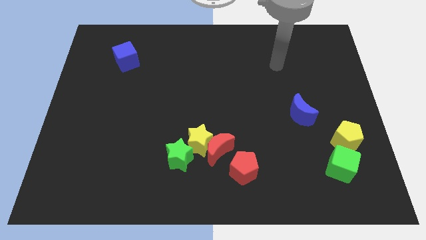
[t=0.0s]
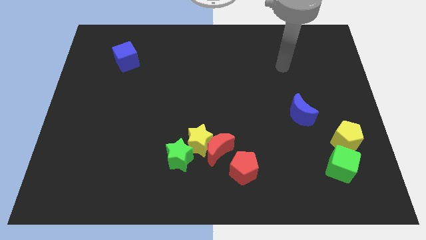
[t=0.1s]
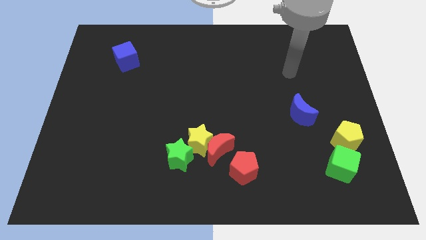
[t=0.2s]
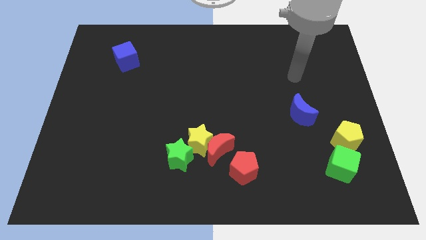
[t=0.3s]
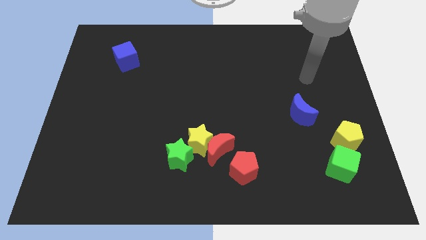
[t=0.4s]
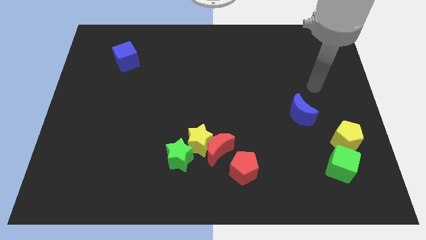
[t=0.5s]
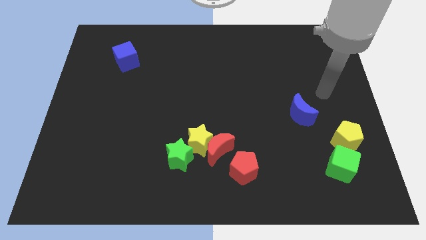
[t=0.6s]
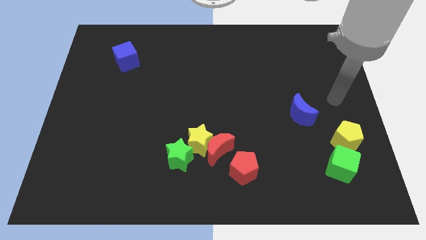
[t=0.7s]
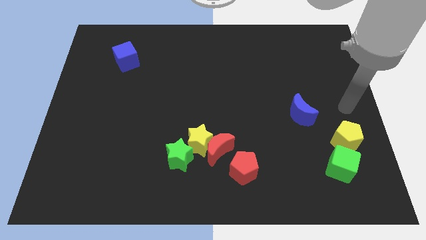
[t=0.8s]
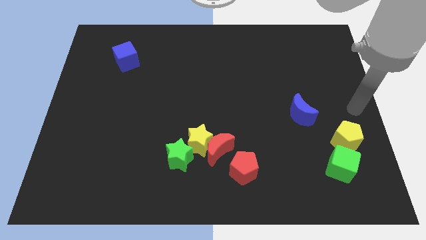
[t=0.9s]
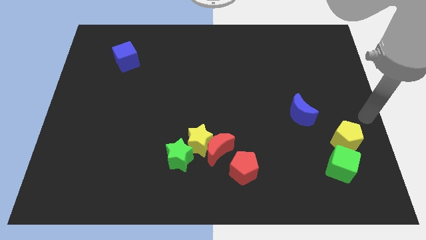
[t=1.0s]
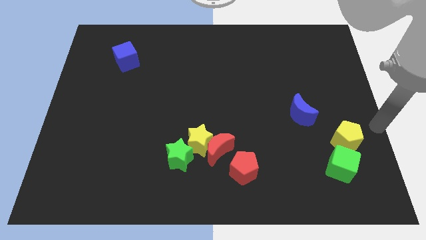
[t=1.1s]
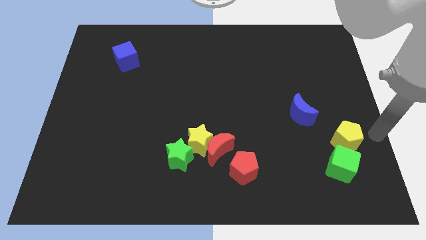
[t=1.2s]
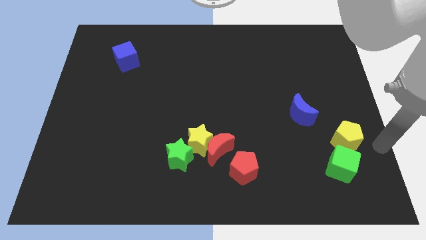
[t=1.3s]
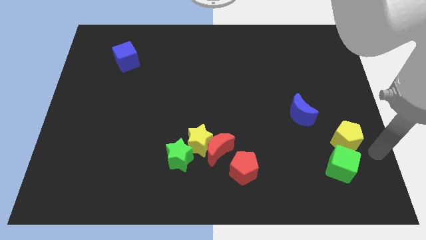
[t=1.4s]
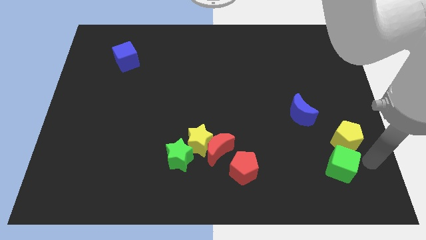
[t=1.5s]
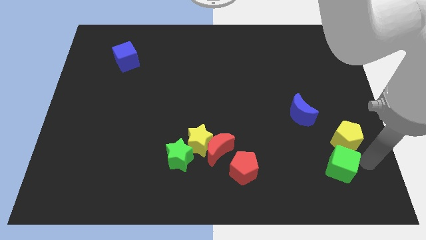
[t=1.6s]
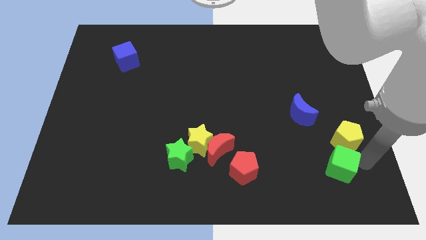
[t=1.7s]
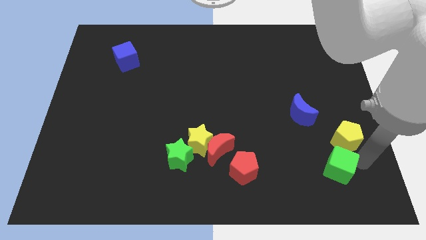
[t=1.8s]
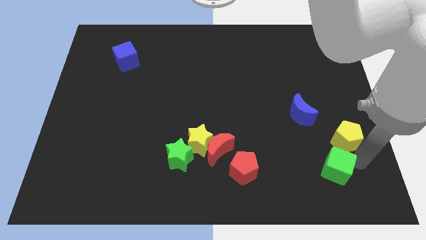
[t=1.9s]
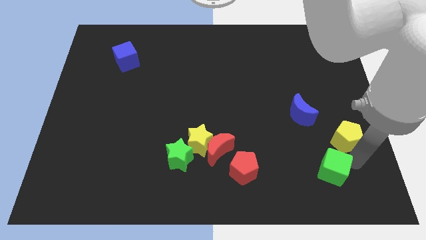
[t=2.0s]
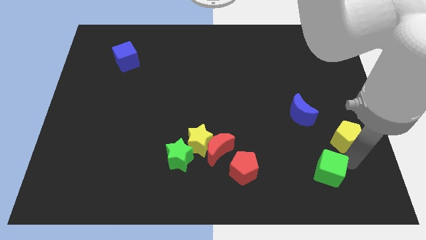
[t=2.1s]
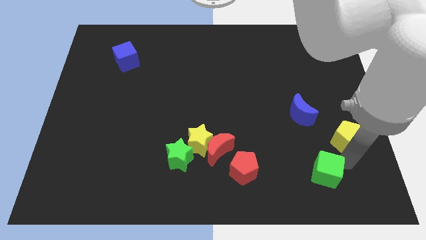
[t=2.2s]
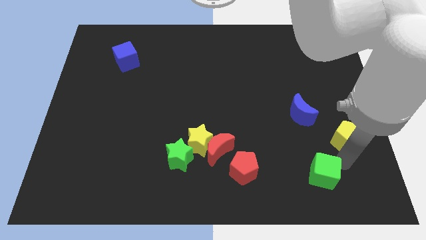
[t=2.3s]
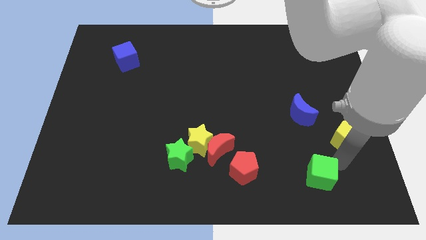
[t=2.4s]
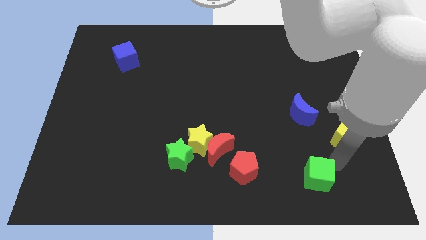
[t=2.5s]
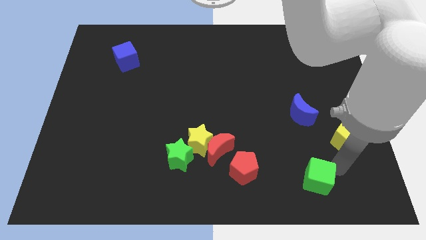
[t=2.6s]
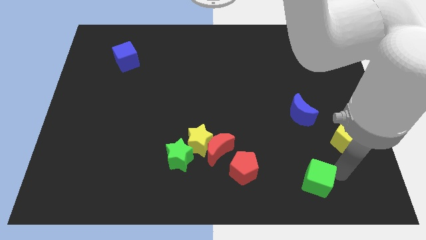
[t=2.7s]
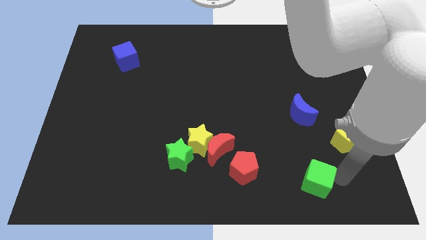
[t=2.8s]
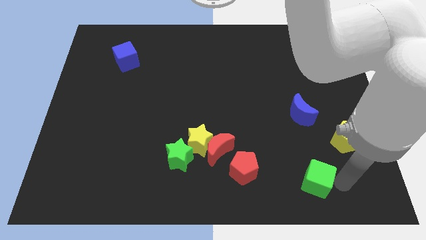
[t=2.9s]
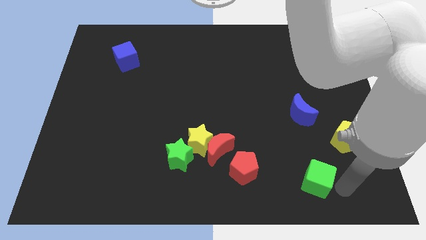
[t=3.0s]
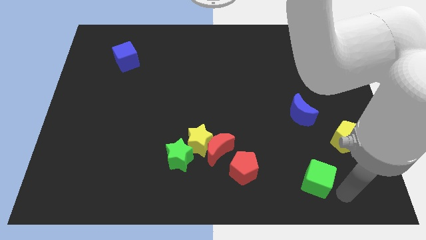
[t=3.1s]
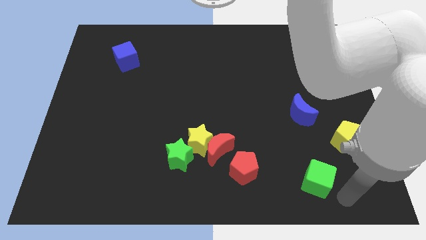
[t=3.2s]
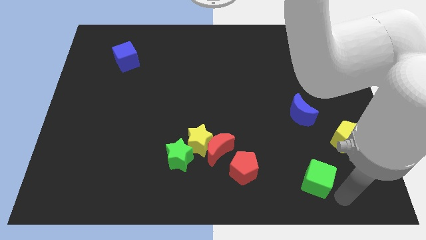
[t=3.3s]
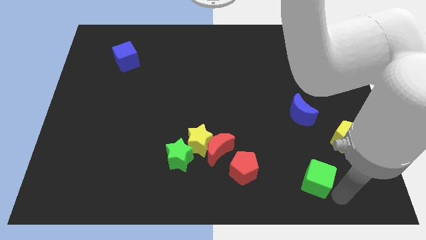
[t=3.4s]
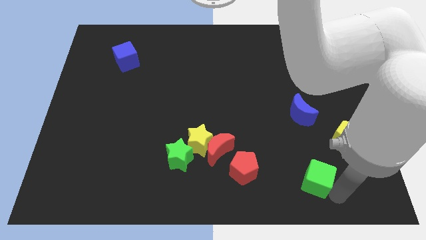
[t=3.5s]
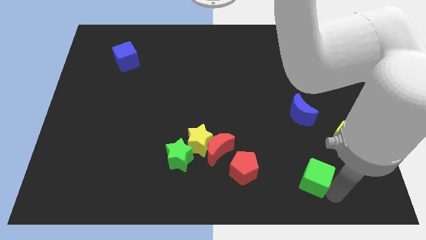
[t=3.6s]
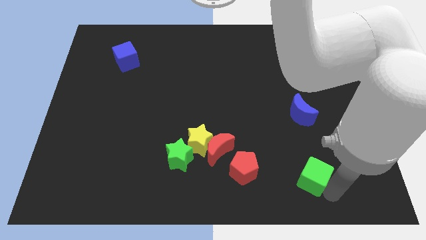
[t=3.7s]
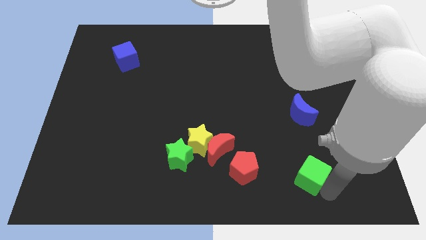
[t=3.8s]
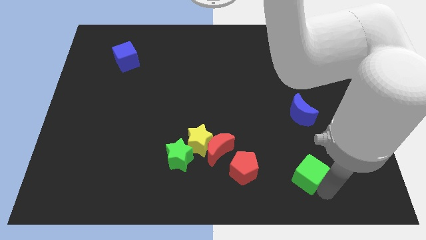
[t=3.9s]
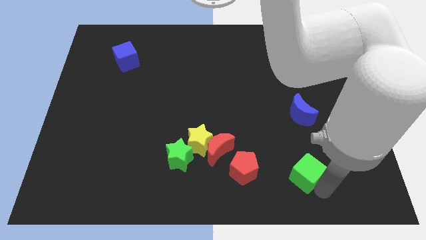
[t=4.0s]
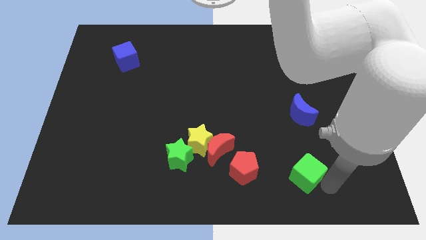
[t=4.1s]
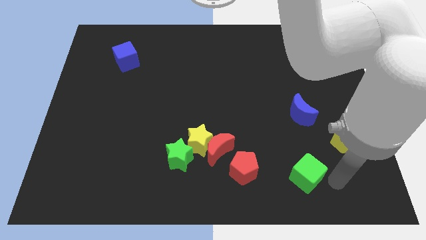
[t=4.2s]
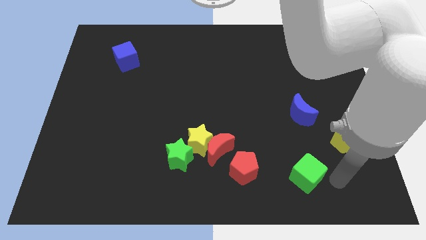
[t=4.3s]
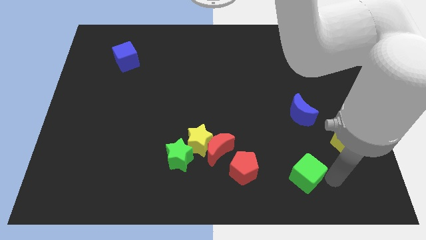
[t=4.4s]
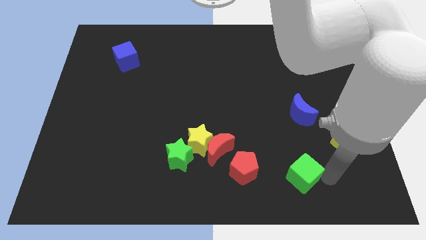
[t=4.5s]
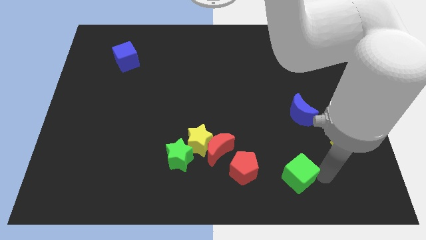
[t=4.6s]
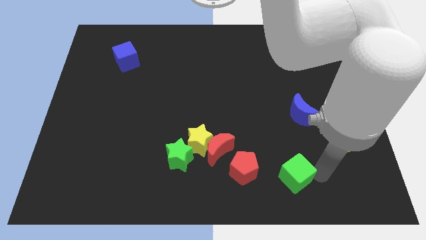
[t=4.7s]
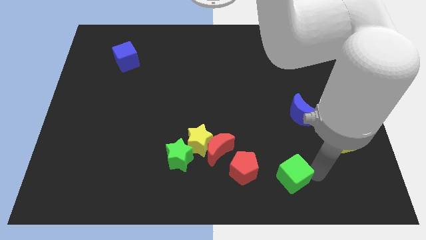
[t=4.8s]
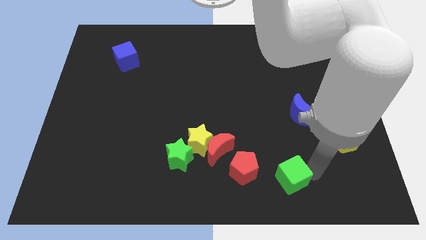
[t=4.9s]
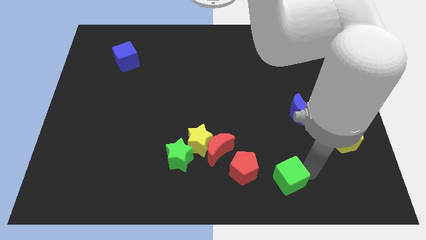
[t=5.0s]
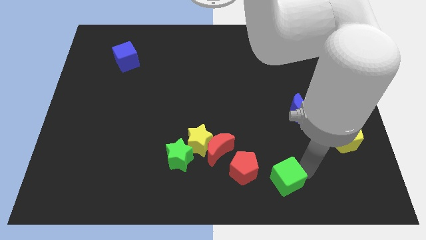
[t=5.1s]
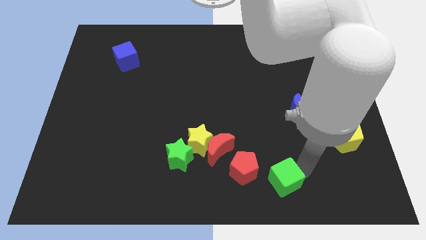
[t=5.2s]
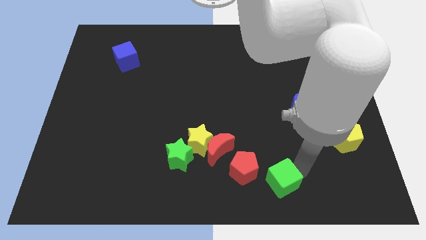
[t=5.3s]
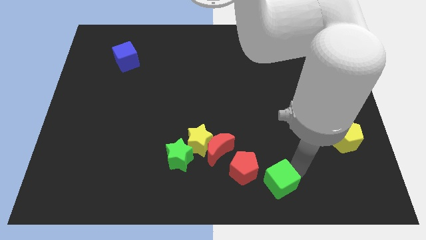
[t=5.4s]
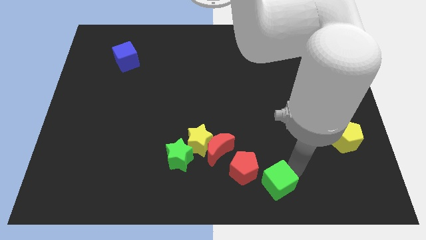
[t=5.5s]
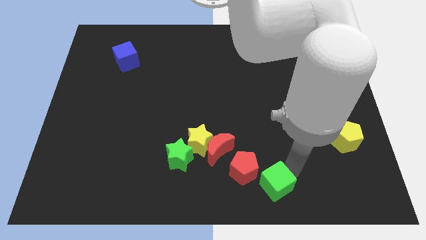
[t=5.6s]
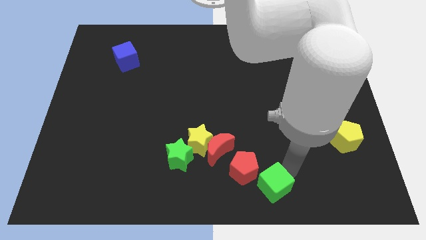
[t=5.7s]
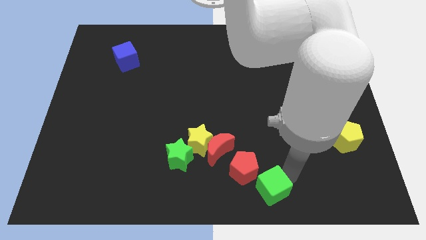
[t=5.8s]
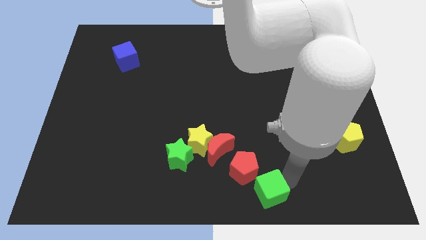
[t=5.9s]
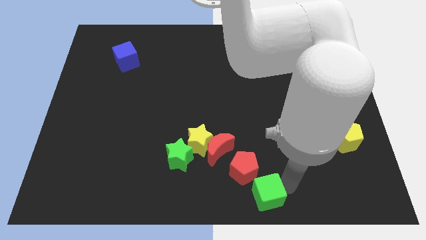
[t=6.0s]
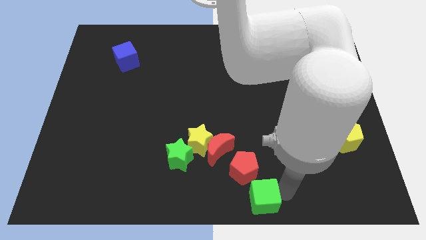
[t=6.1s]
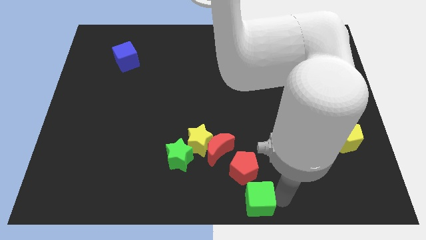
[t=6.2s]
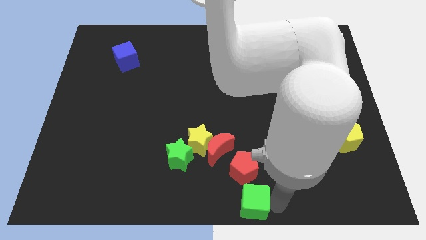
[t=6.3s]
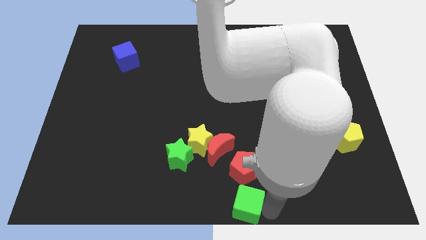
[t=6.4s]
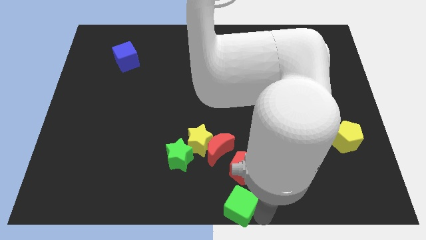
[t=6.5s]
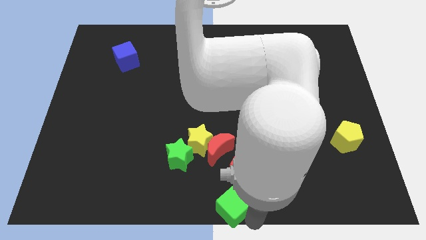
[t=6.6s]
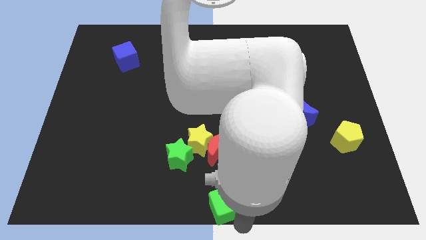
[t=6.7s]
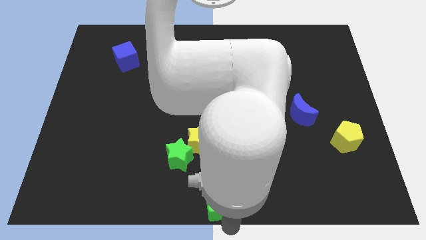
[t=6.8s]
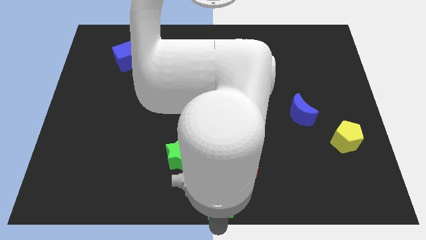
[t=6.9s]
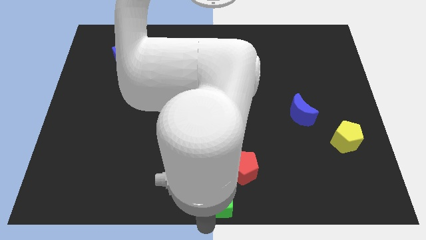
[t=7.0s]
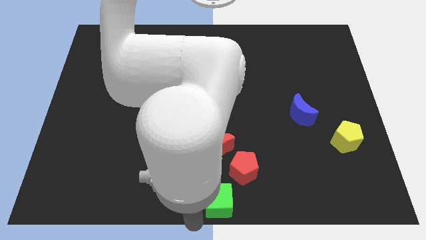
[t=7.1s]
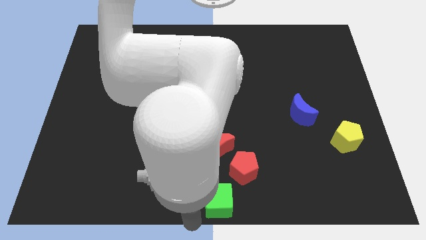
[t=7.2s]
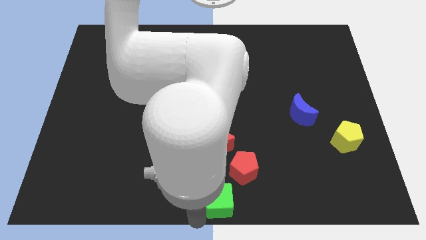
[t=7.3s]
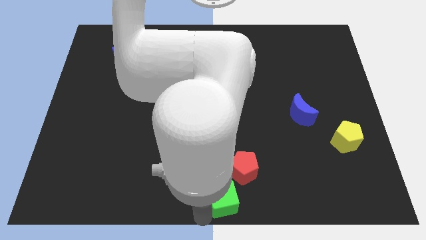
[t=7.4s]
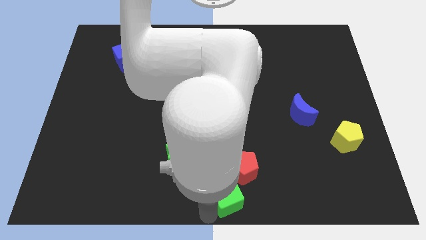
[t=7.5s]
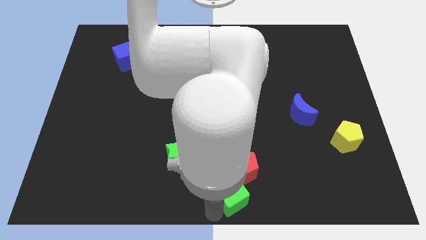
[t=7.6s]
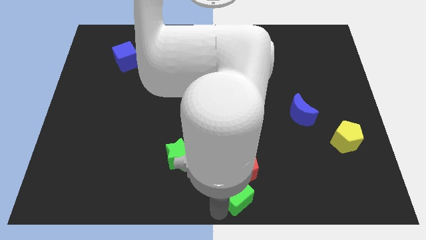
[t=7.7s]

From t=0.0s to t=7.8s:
push the green cube towards the red pentagon
